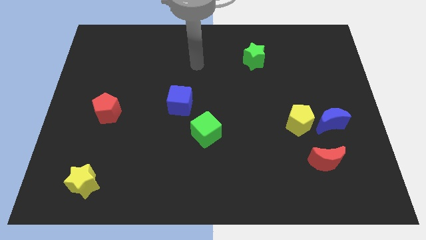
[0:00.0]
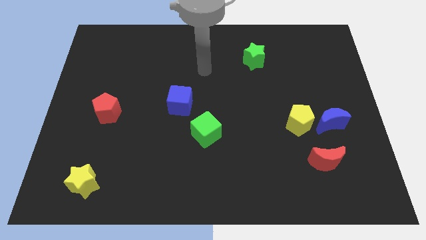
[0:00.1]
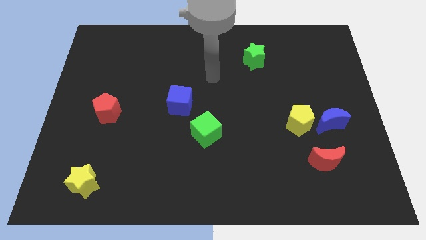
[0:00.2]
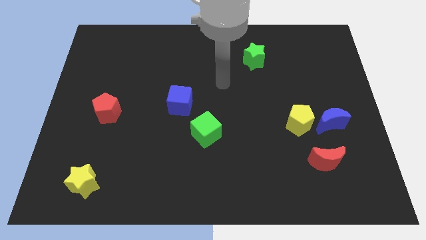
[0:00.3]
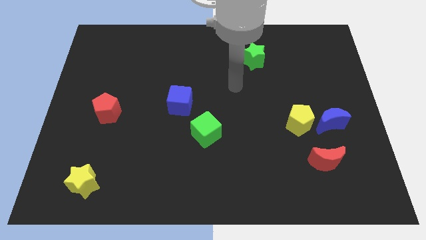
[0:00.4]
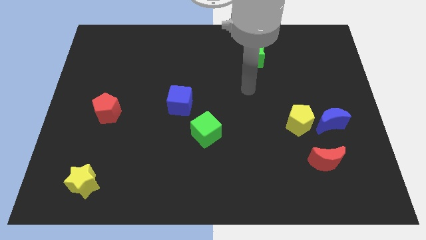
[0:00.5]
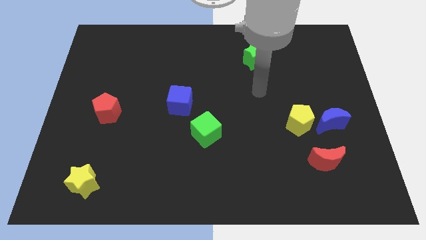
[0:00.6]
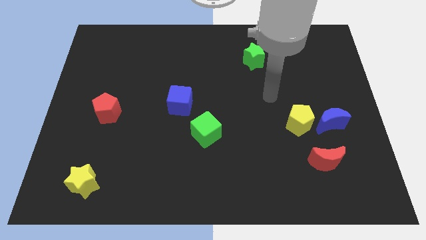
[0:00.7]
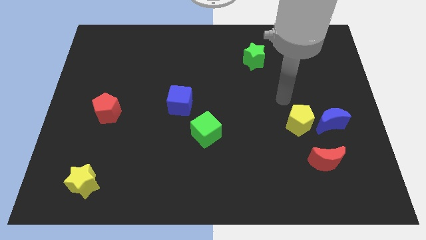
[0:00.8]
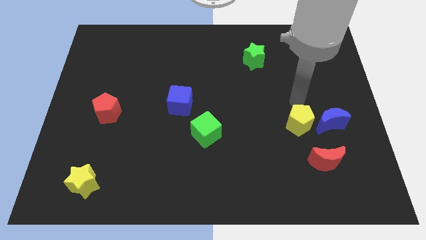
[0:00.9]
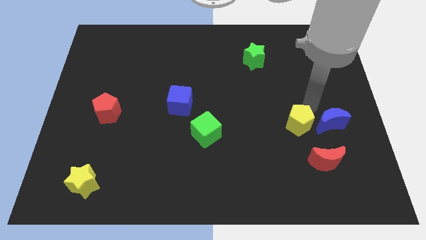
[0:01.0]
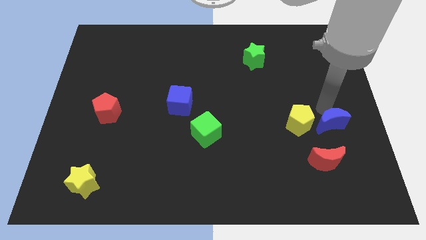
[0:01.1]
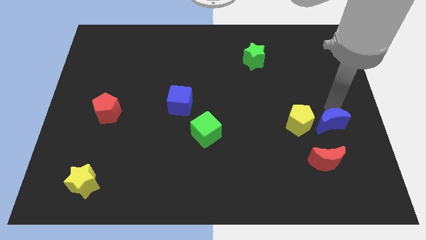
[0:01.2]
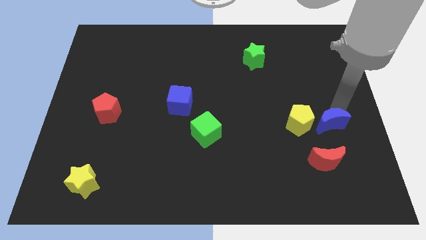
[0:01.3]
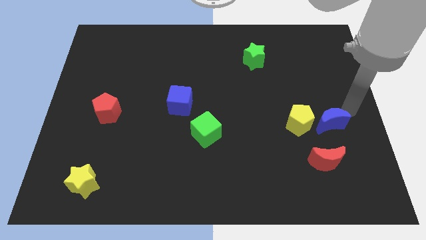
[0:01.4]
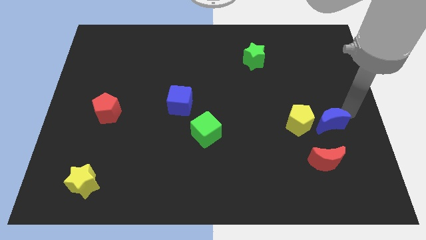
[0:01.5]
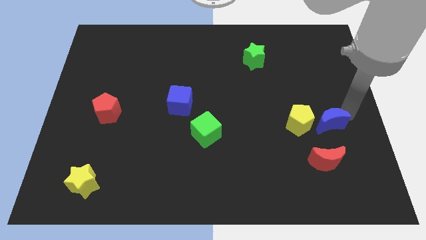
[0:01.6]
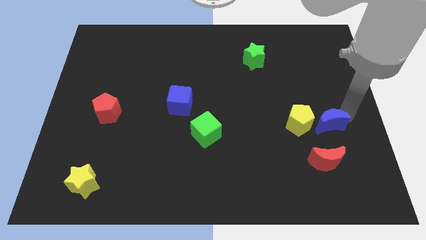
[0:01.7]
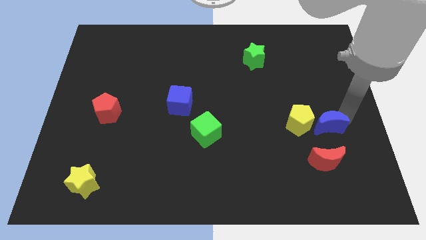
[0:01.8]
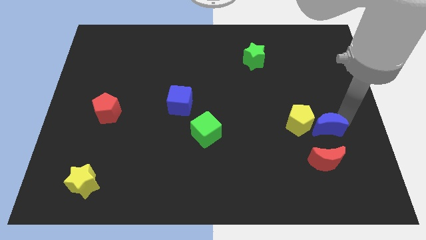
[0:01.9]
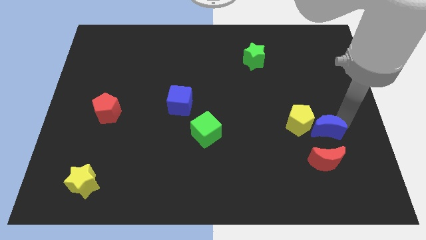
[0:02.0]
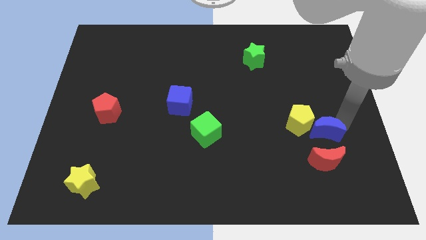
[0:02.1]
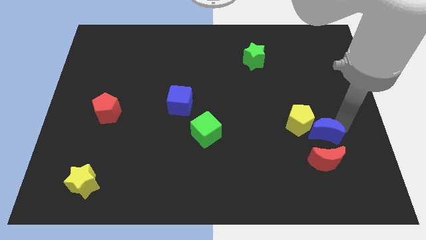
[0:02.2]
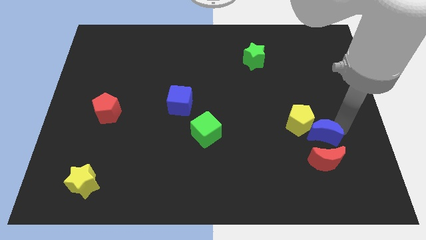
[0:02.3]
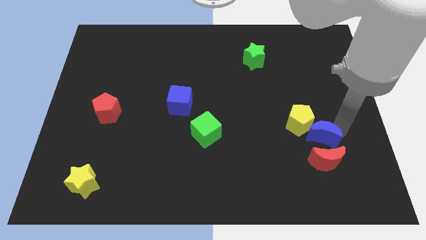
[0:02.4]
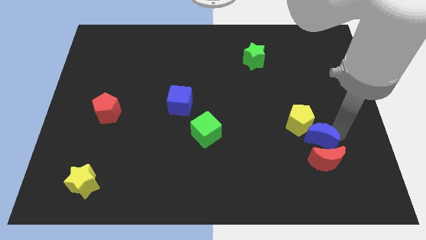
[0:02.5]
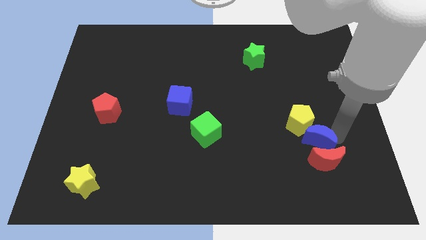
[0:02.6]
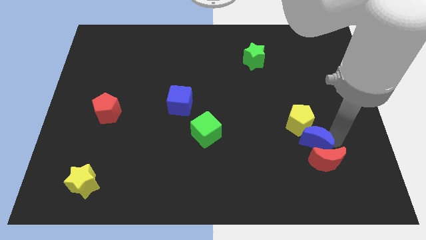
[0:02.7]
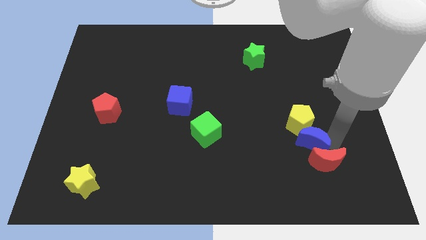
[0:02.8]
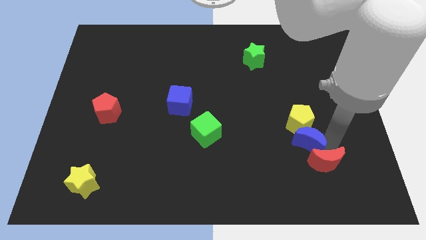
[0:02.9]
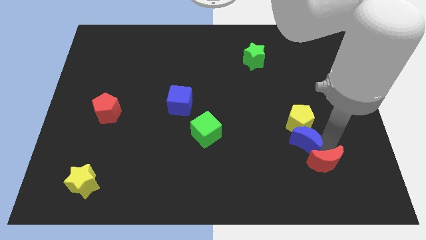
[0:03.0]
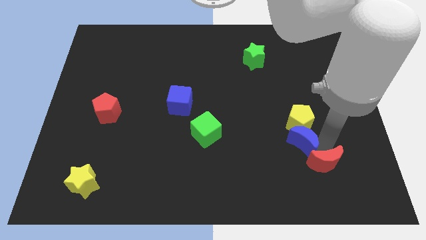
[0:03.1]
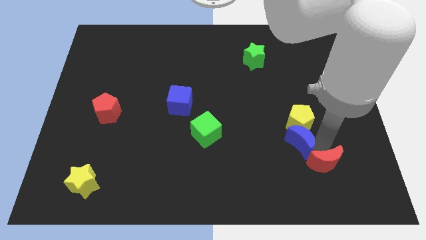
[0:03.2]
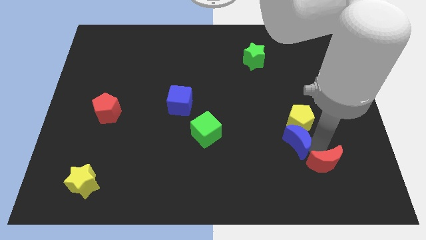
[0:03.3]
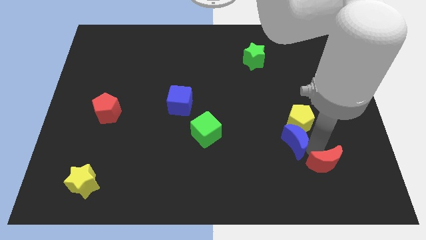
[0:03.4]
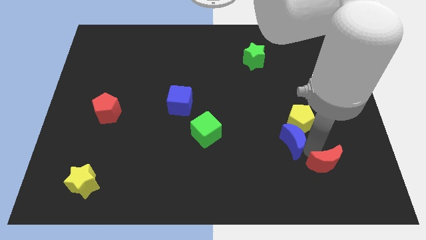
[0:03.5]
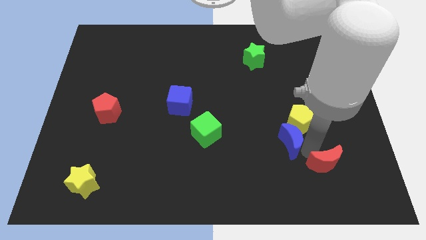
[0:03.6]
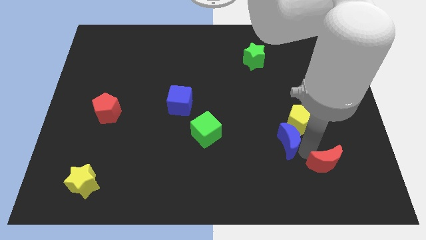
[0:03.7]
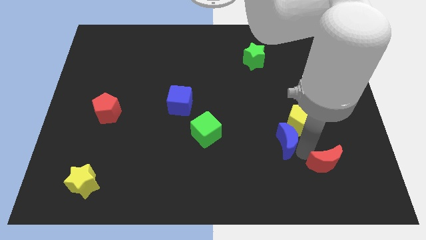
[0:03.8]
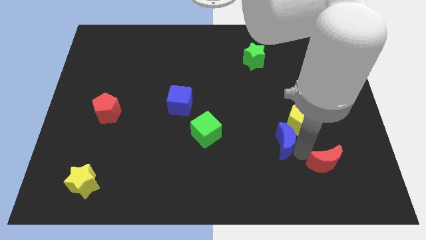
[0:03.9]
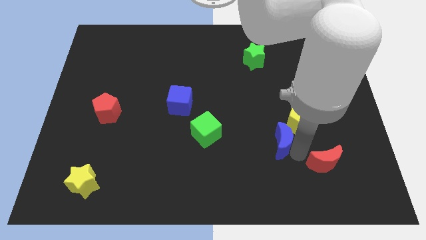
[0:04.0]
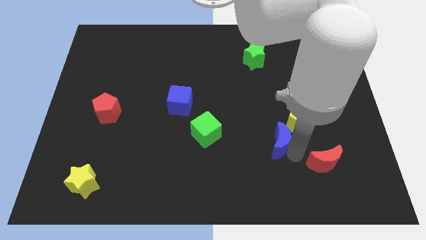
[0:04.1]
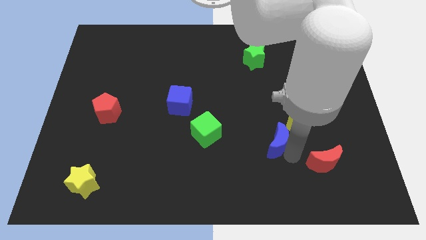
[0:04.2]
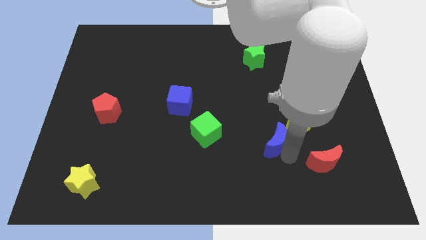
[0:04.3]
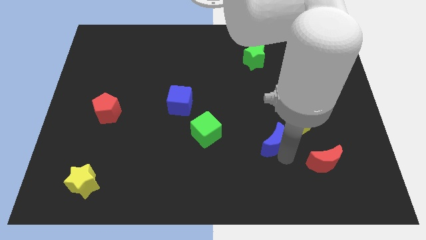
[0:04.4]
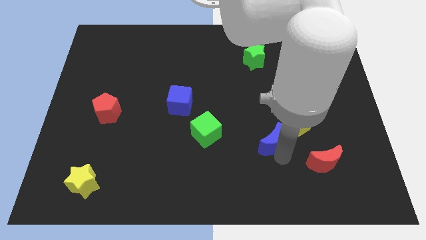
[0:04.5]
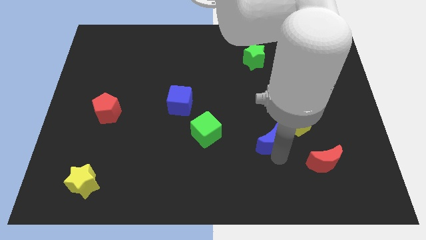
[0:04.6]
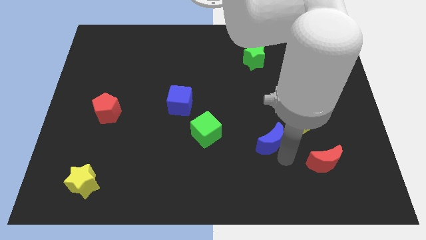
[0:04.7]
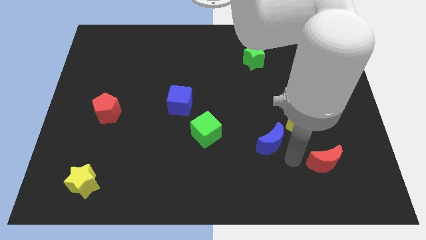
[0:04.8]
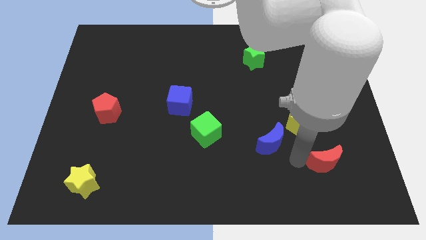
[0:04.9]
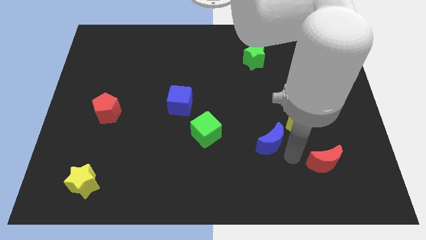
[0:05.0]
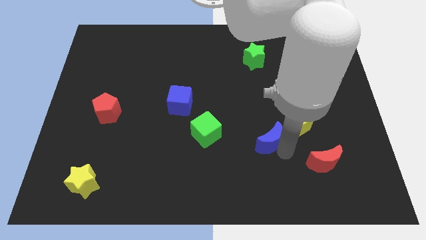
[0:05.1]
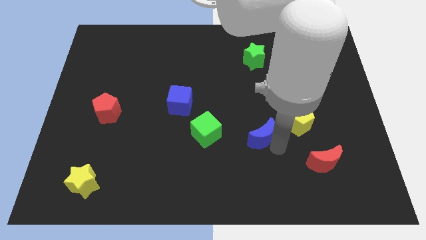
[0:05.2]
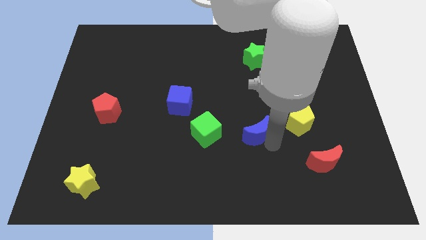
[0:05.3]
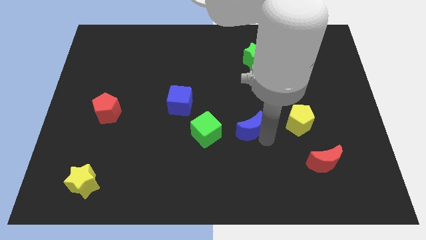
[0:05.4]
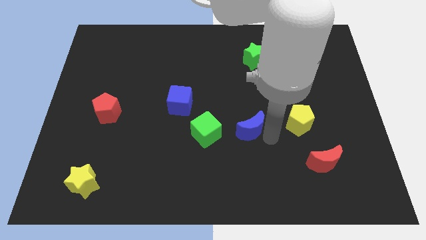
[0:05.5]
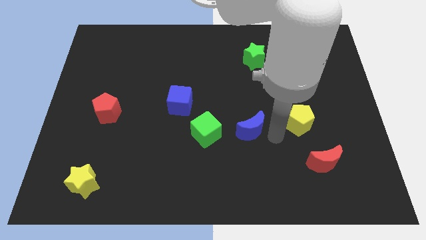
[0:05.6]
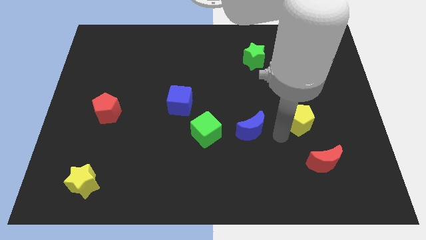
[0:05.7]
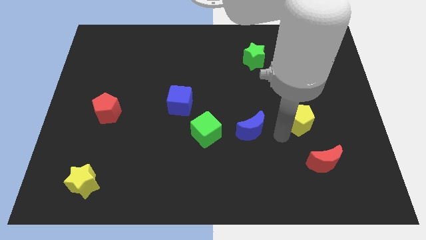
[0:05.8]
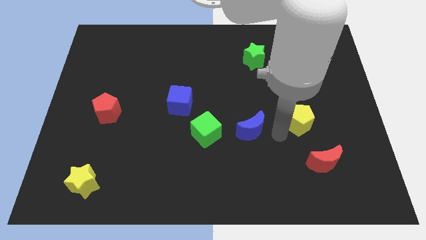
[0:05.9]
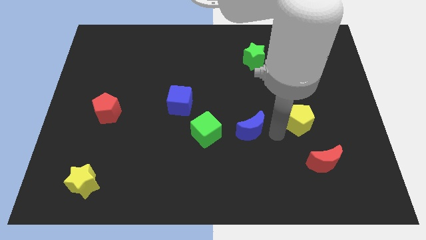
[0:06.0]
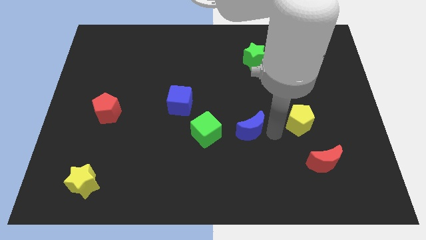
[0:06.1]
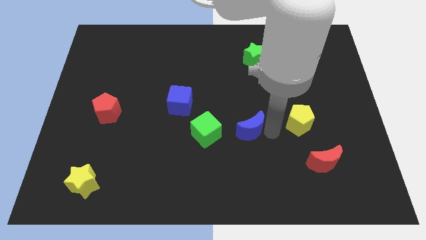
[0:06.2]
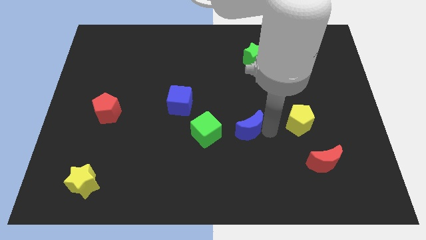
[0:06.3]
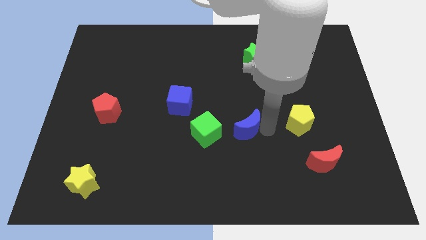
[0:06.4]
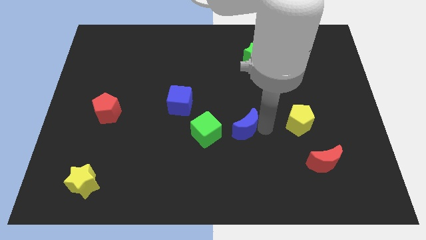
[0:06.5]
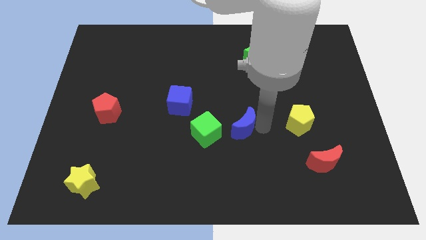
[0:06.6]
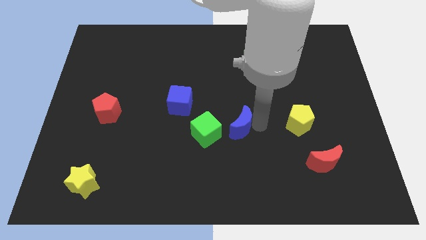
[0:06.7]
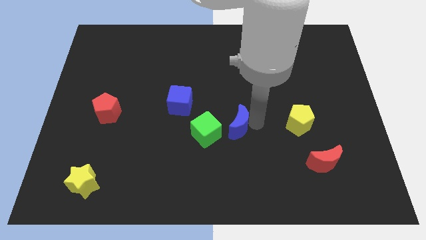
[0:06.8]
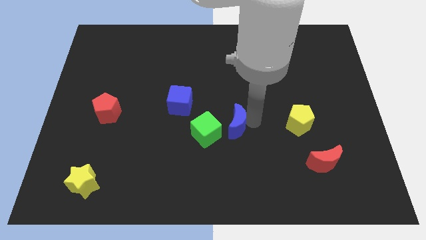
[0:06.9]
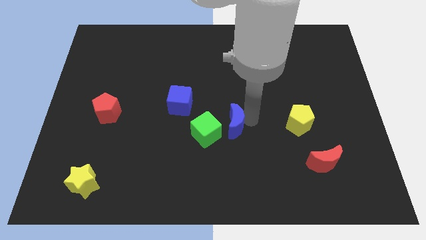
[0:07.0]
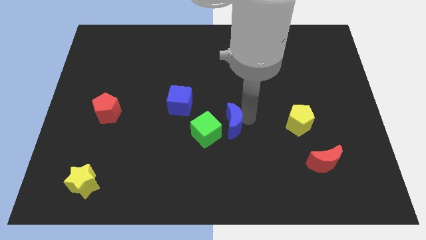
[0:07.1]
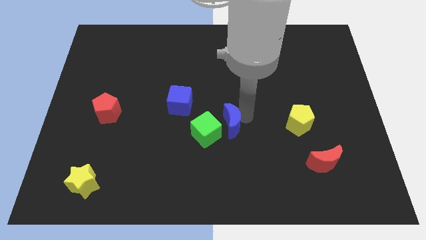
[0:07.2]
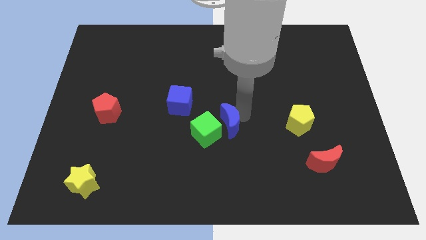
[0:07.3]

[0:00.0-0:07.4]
push the blue moon to the green cube

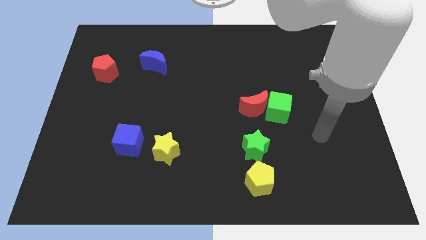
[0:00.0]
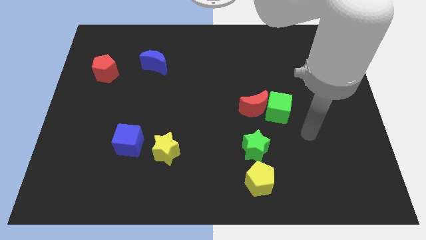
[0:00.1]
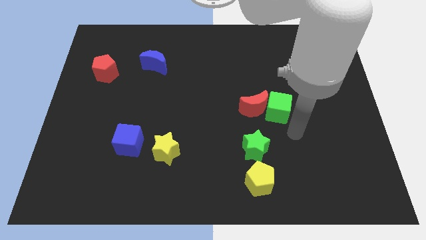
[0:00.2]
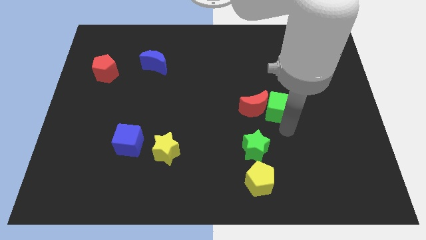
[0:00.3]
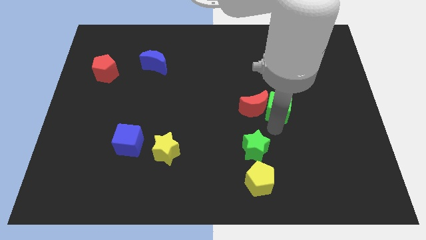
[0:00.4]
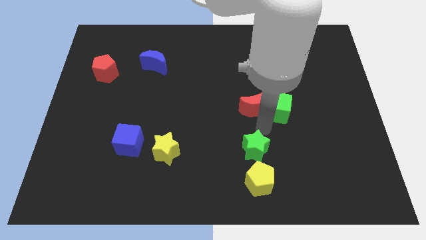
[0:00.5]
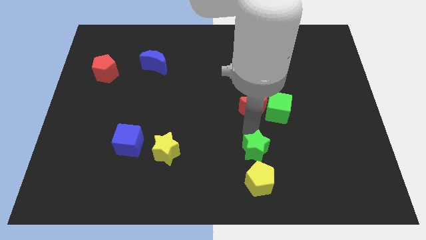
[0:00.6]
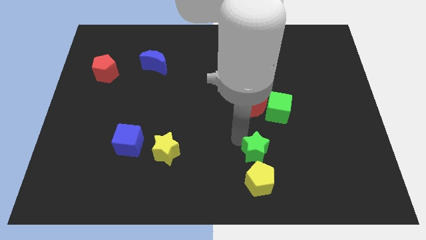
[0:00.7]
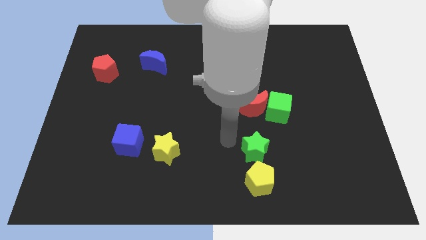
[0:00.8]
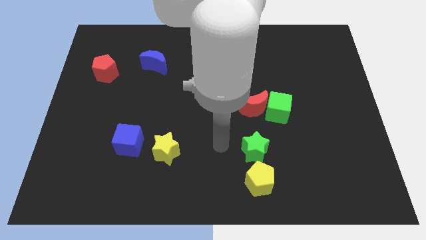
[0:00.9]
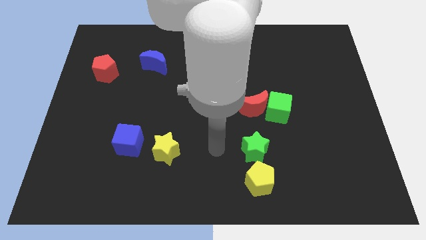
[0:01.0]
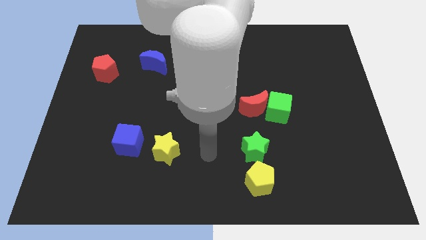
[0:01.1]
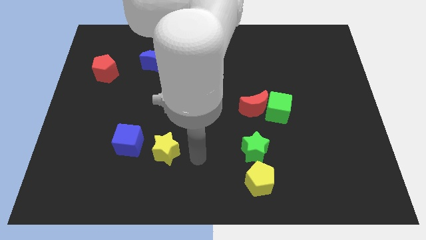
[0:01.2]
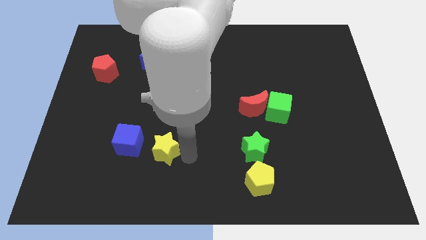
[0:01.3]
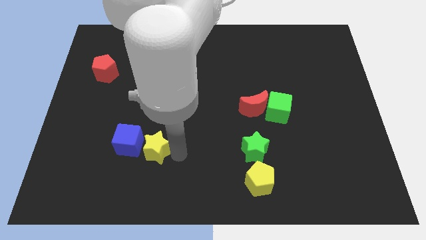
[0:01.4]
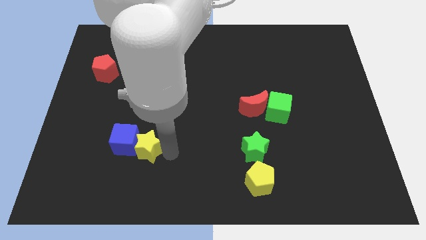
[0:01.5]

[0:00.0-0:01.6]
slide the yellow star towards the blue cube
